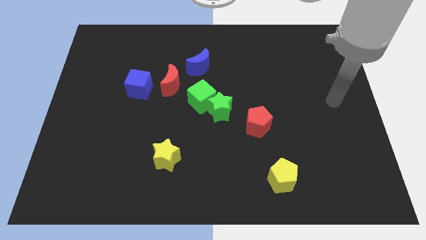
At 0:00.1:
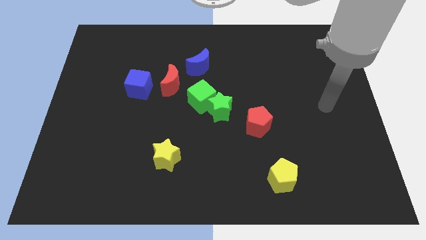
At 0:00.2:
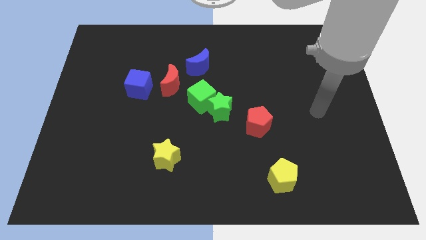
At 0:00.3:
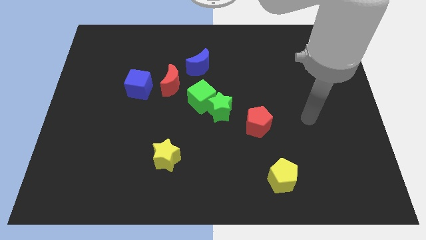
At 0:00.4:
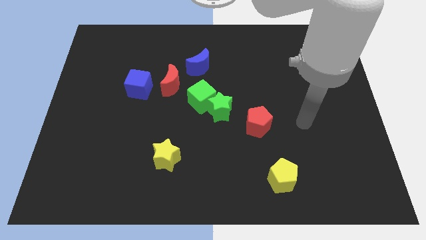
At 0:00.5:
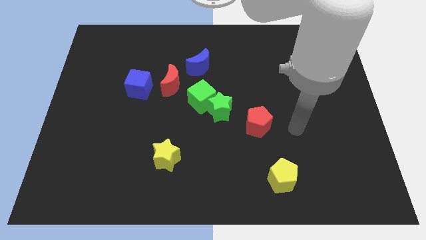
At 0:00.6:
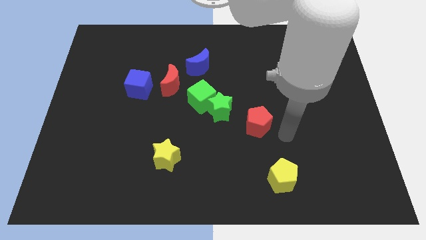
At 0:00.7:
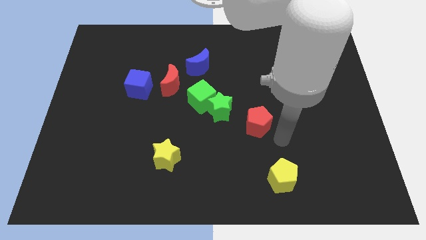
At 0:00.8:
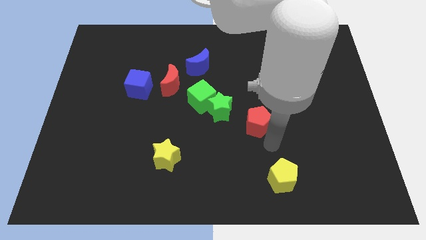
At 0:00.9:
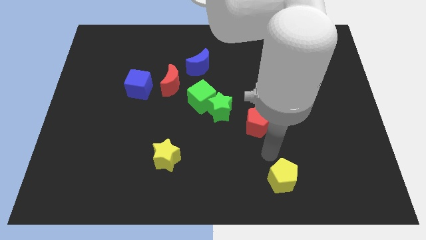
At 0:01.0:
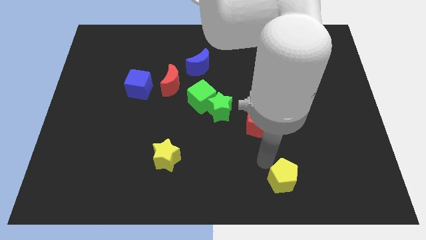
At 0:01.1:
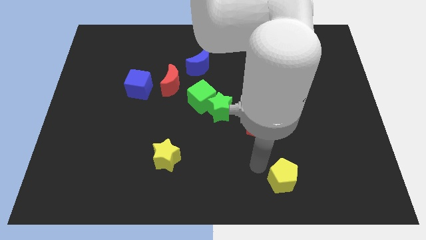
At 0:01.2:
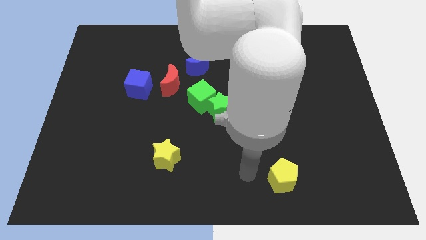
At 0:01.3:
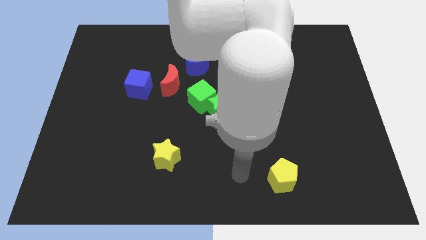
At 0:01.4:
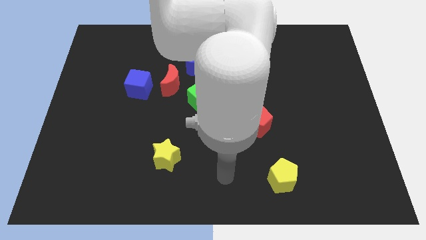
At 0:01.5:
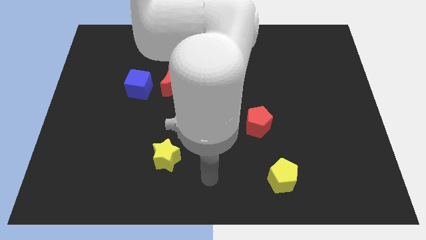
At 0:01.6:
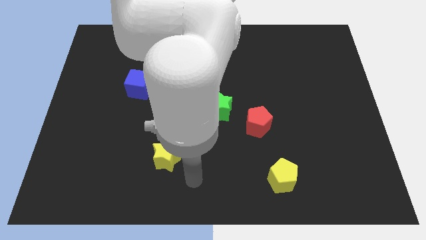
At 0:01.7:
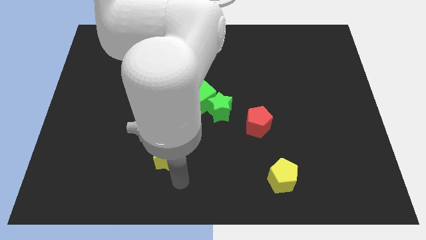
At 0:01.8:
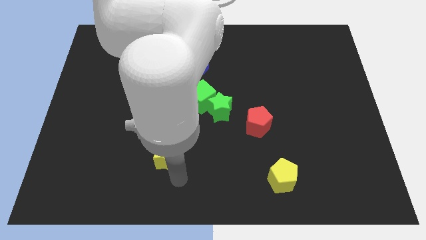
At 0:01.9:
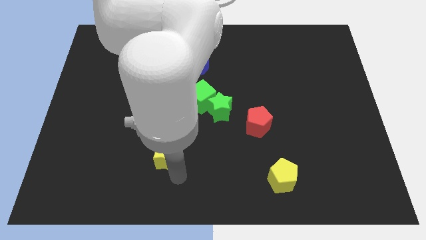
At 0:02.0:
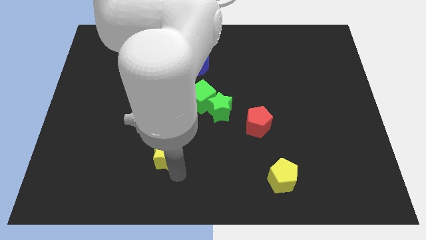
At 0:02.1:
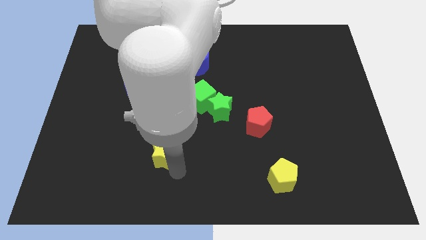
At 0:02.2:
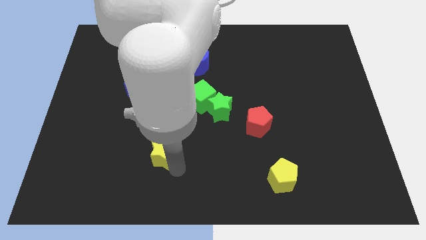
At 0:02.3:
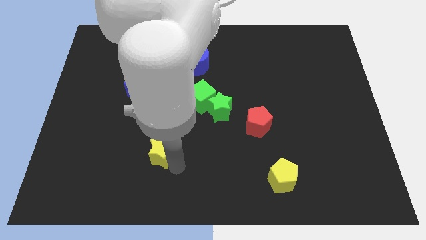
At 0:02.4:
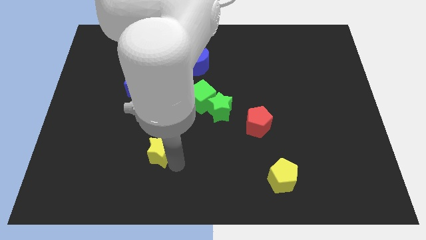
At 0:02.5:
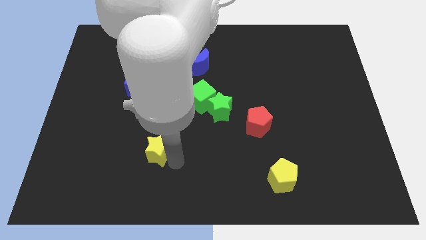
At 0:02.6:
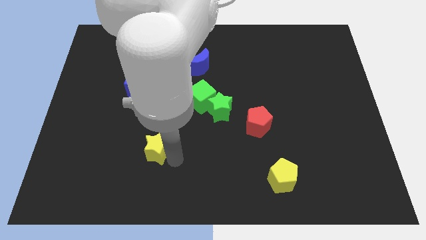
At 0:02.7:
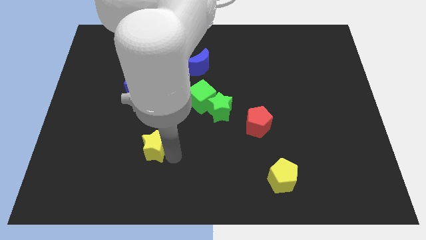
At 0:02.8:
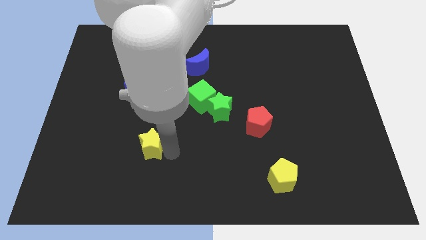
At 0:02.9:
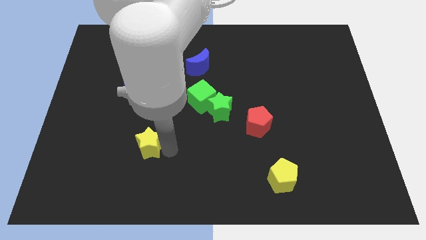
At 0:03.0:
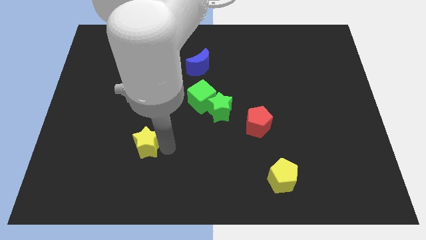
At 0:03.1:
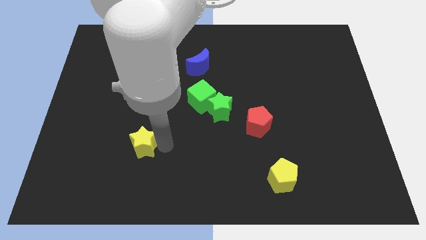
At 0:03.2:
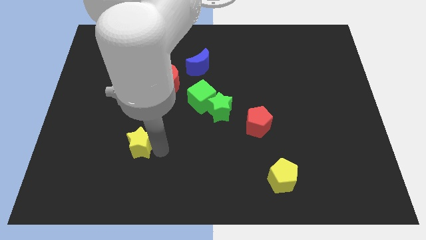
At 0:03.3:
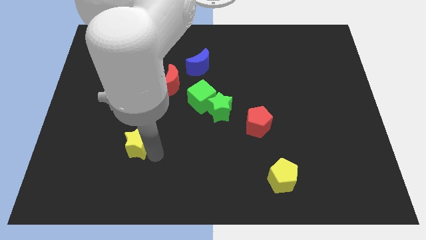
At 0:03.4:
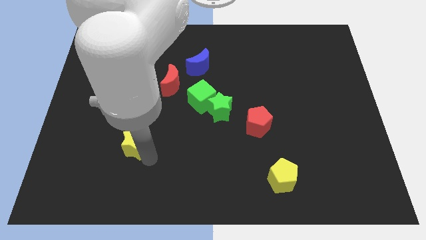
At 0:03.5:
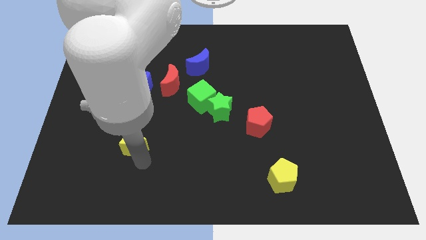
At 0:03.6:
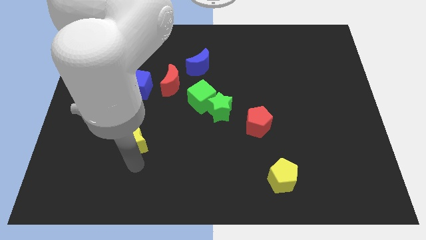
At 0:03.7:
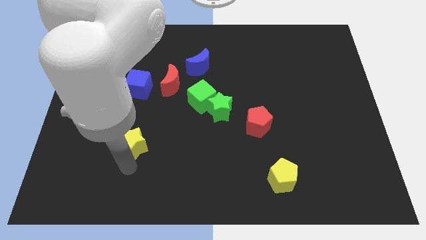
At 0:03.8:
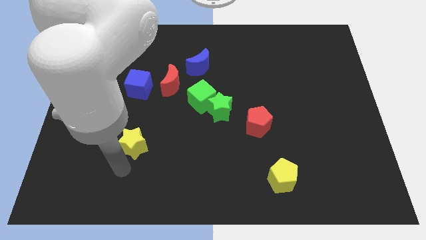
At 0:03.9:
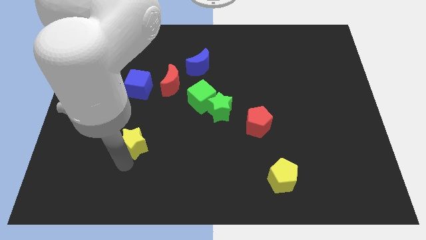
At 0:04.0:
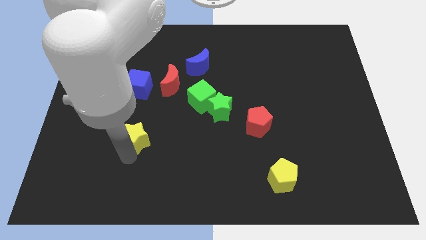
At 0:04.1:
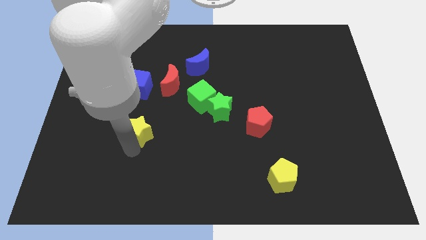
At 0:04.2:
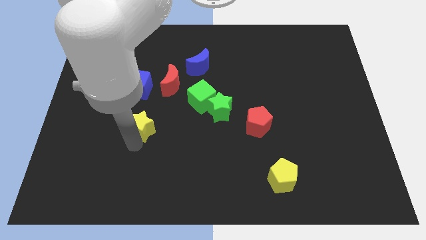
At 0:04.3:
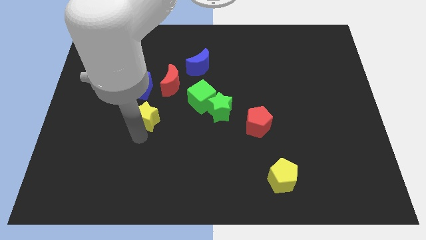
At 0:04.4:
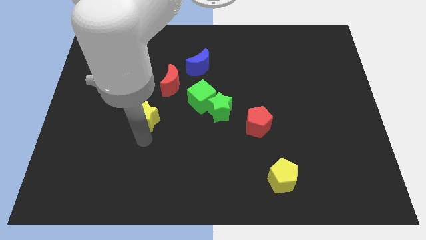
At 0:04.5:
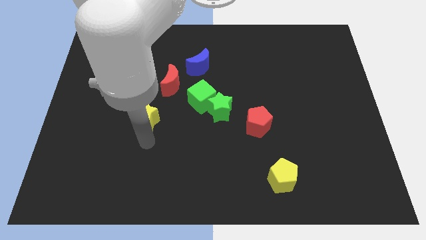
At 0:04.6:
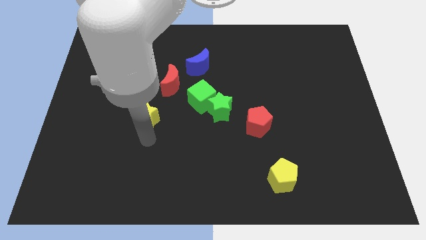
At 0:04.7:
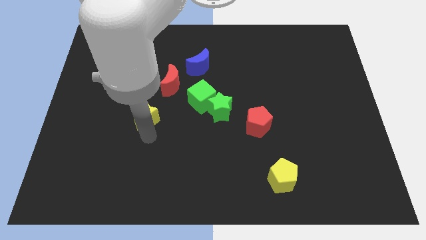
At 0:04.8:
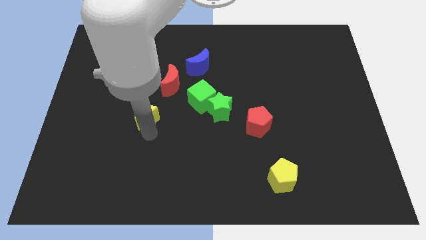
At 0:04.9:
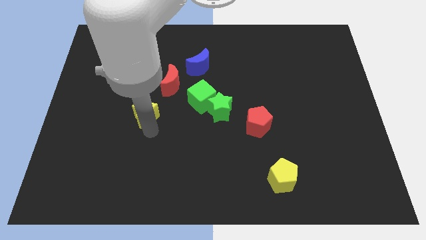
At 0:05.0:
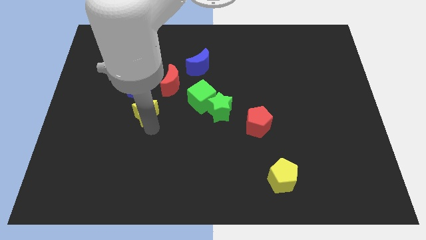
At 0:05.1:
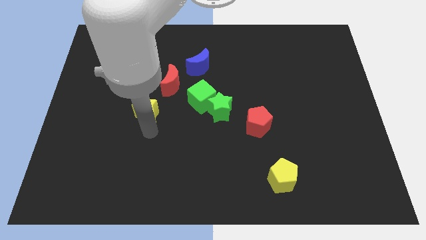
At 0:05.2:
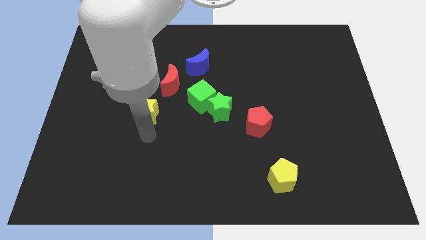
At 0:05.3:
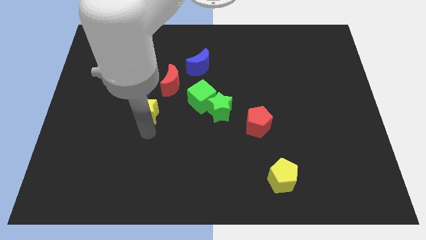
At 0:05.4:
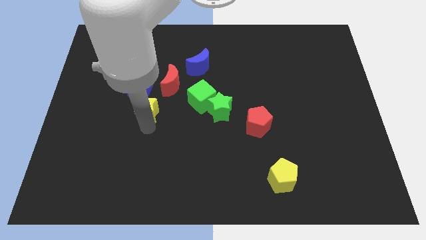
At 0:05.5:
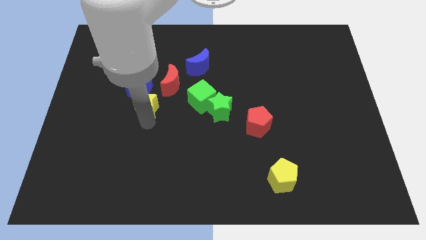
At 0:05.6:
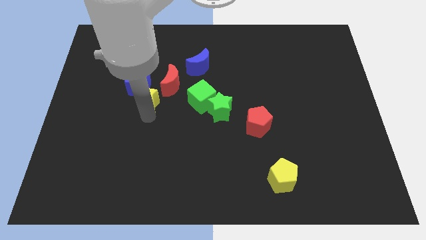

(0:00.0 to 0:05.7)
move the yellow star to the blue cube

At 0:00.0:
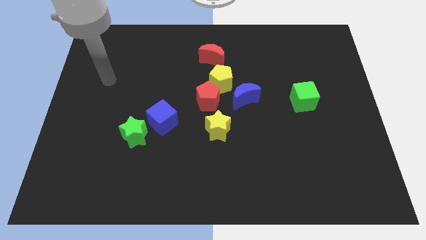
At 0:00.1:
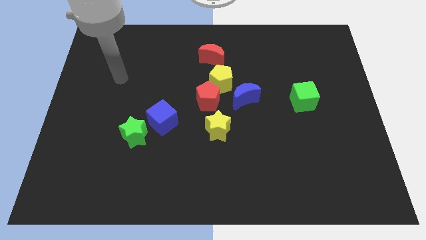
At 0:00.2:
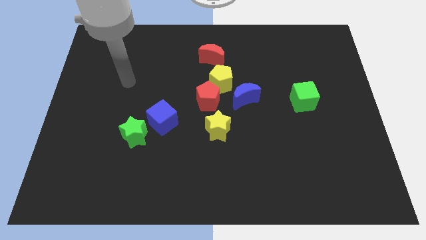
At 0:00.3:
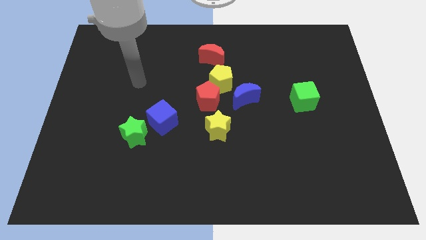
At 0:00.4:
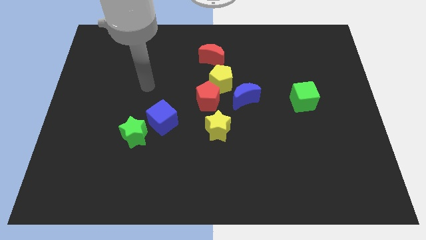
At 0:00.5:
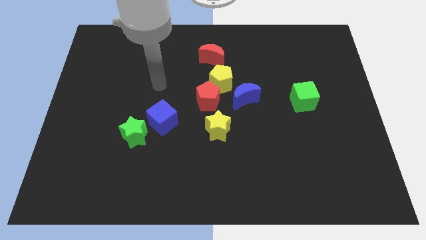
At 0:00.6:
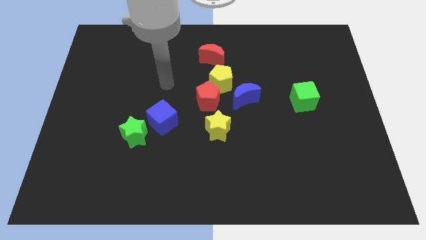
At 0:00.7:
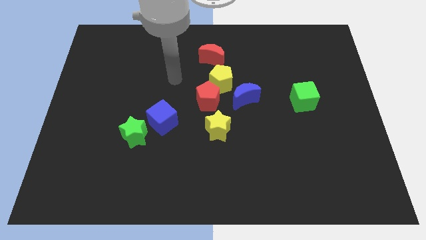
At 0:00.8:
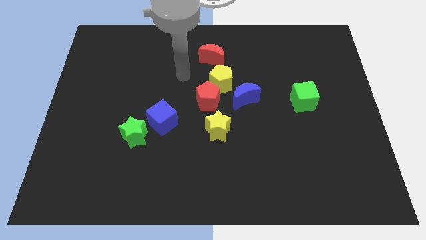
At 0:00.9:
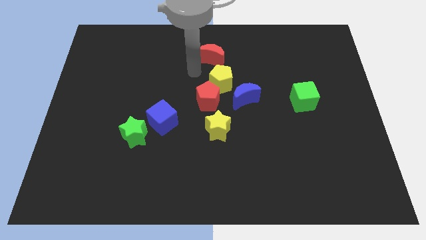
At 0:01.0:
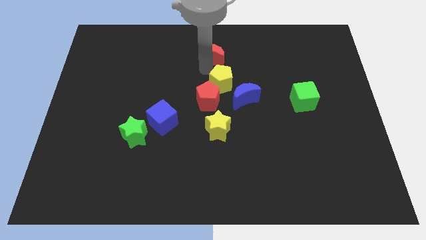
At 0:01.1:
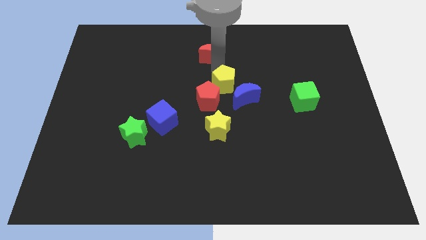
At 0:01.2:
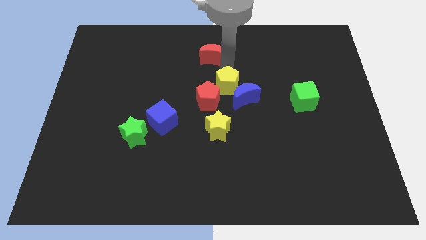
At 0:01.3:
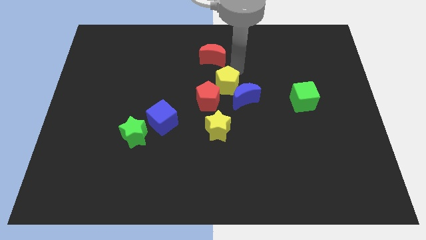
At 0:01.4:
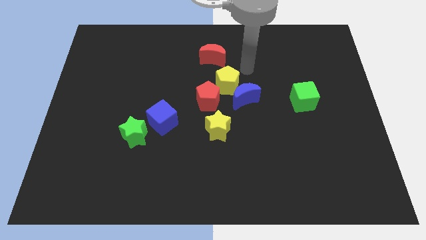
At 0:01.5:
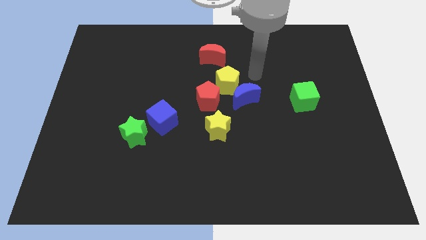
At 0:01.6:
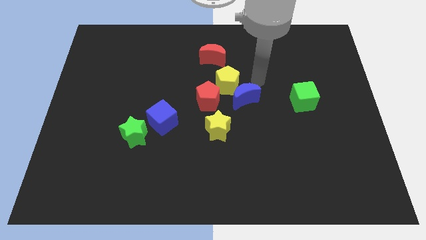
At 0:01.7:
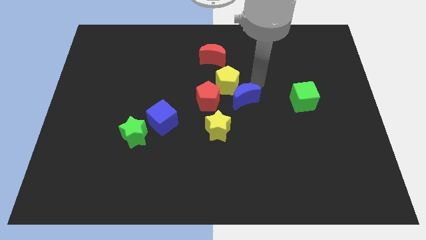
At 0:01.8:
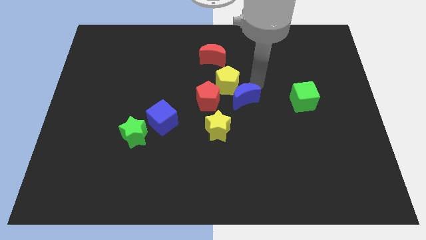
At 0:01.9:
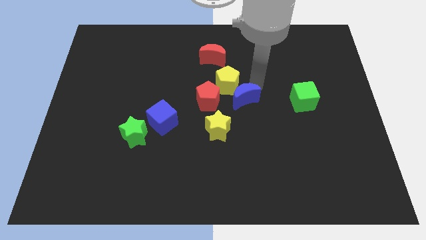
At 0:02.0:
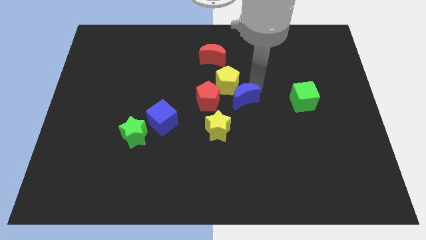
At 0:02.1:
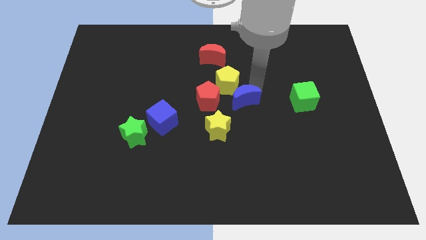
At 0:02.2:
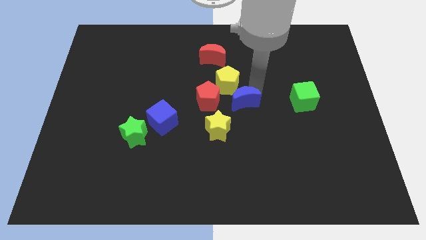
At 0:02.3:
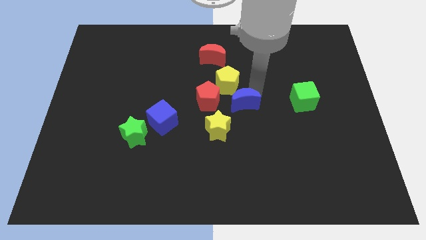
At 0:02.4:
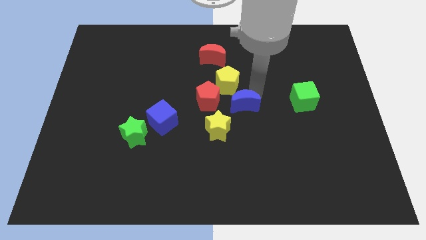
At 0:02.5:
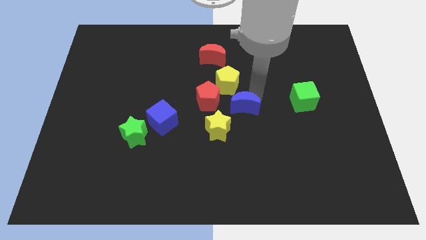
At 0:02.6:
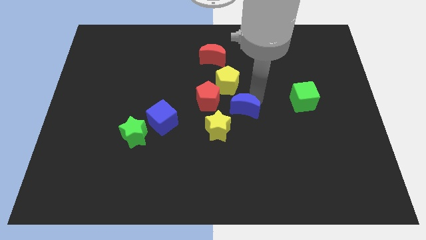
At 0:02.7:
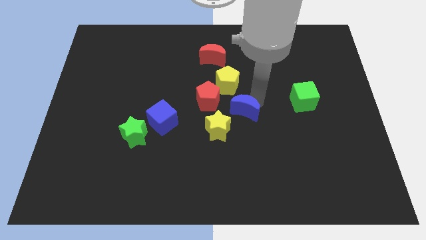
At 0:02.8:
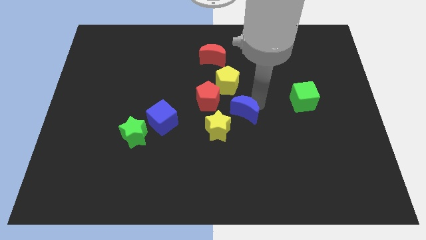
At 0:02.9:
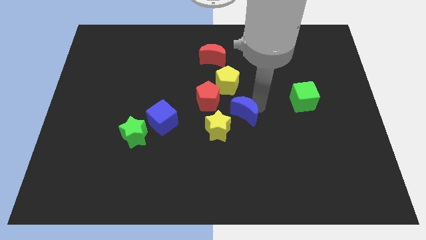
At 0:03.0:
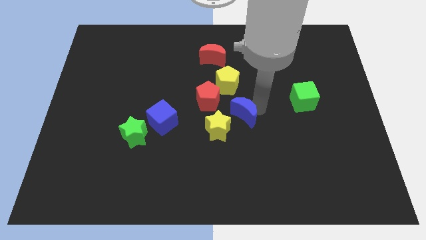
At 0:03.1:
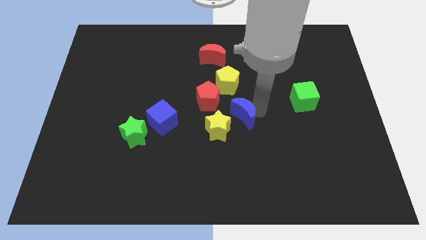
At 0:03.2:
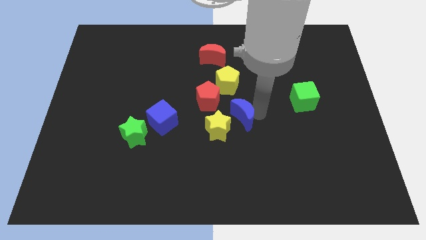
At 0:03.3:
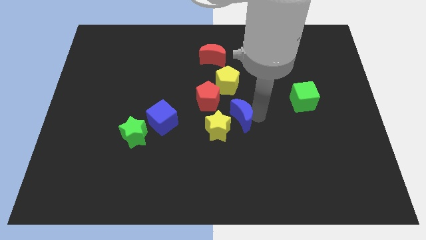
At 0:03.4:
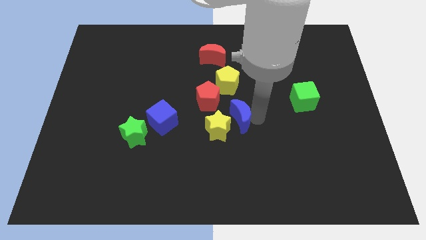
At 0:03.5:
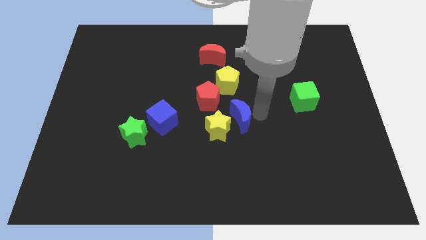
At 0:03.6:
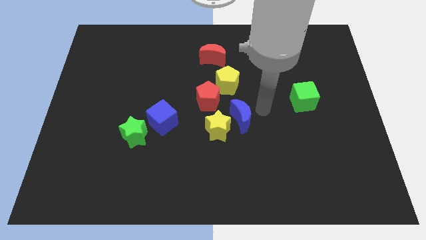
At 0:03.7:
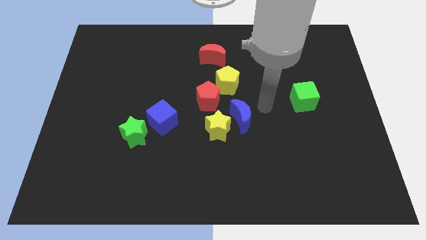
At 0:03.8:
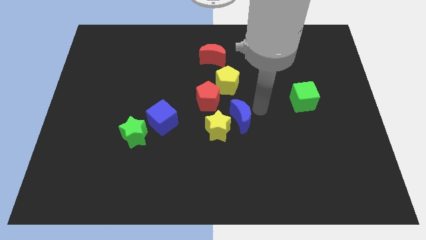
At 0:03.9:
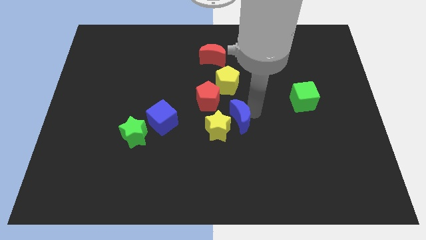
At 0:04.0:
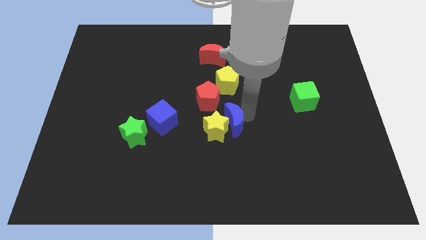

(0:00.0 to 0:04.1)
push the blue moon towards the yellow star
